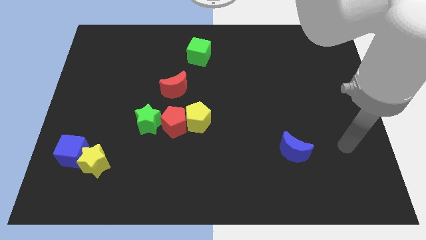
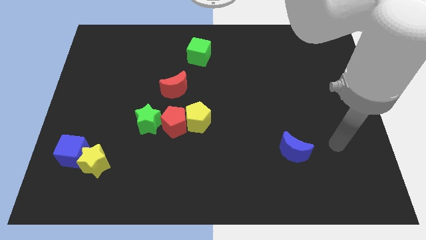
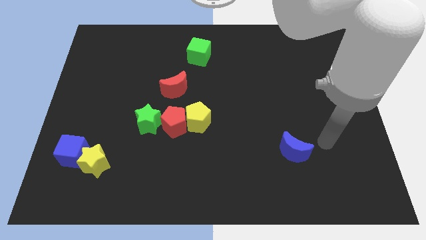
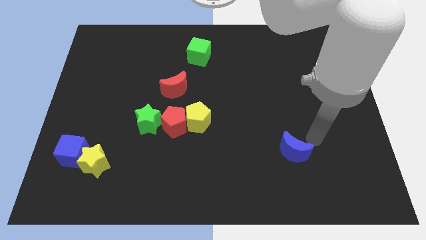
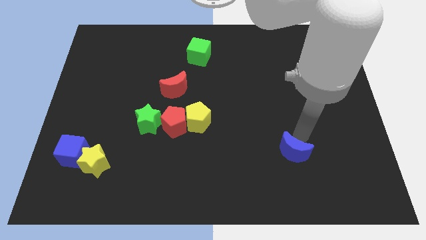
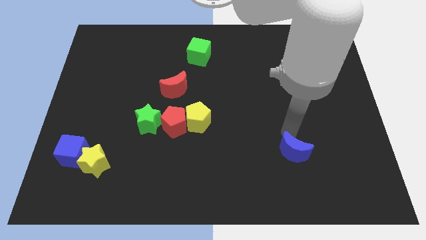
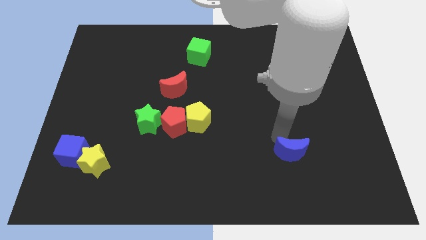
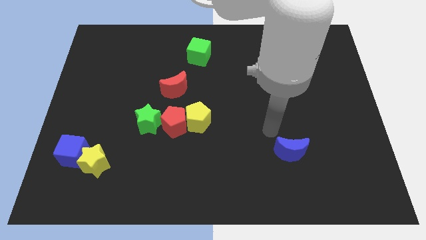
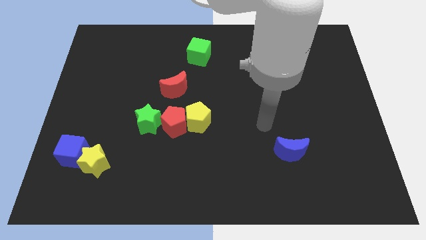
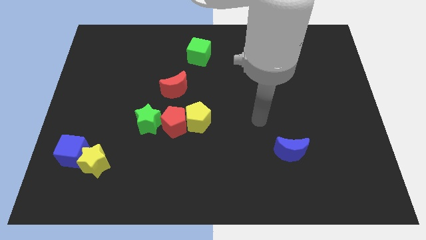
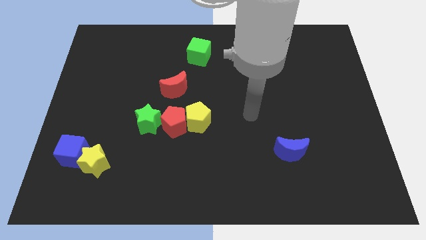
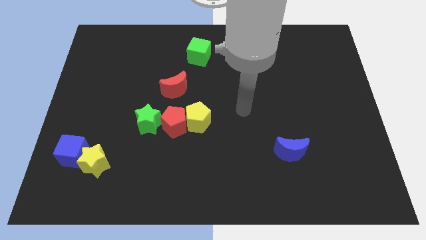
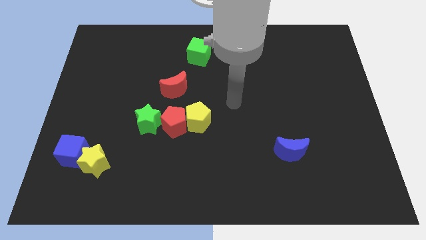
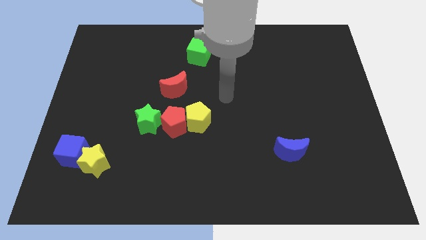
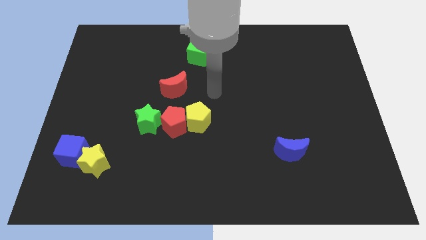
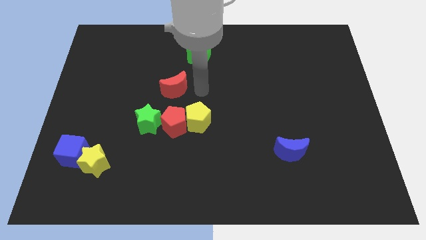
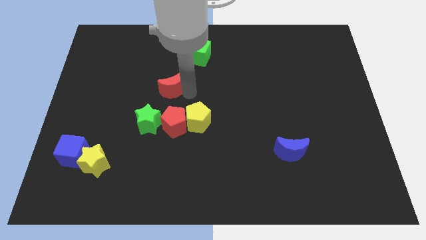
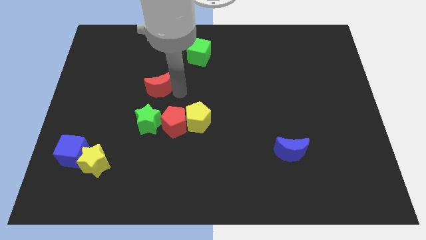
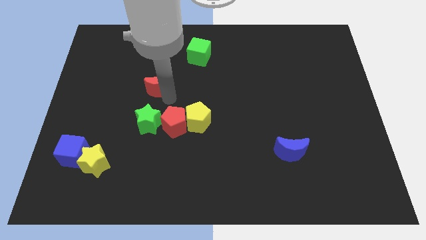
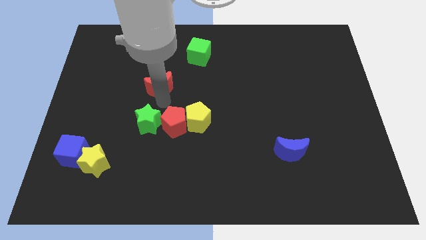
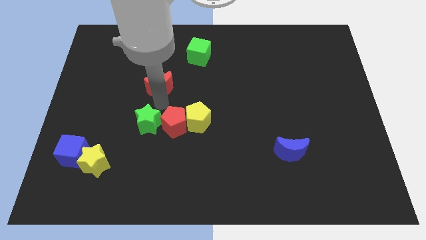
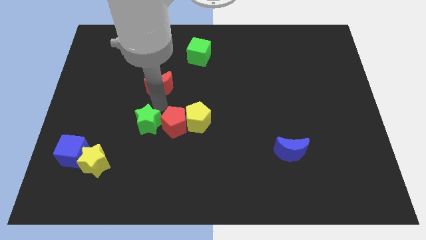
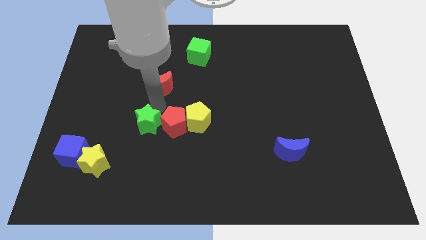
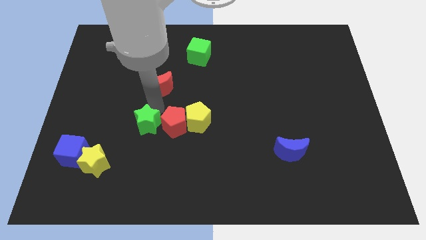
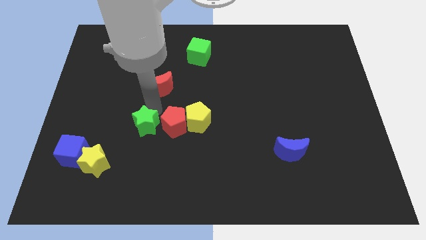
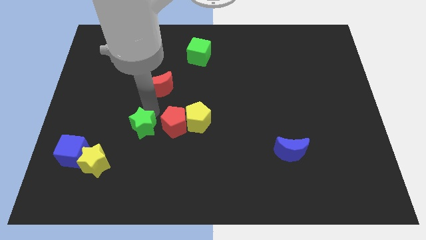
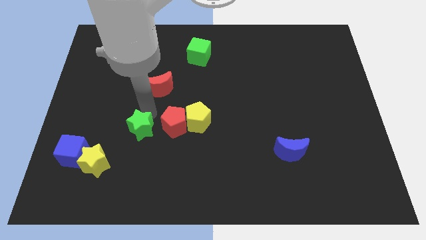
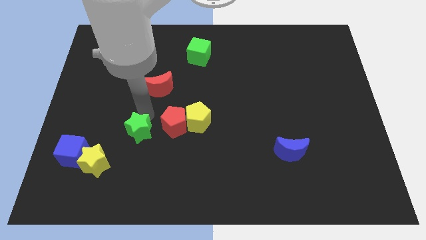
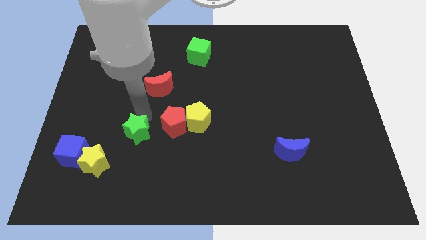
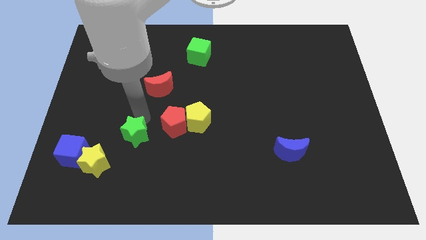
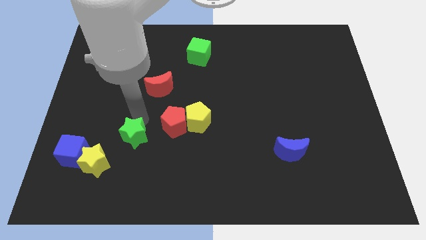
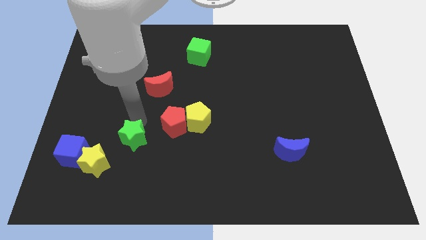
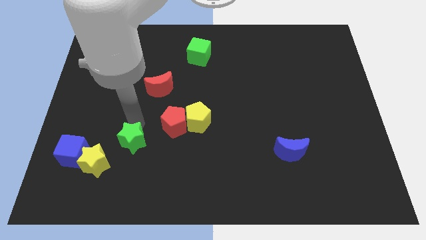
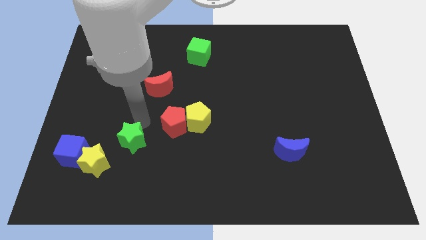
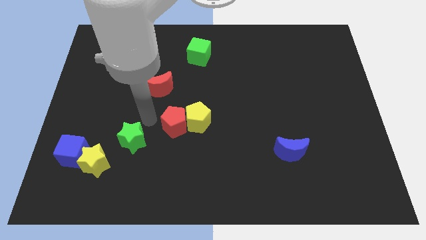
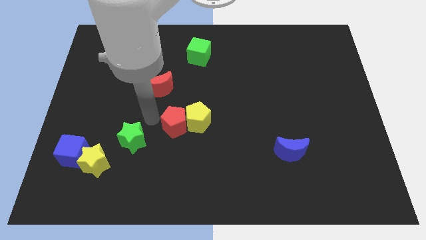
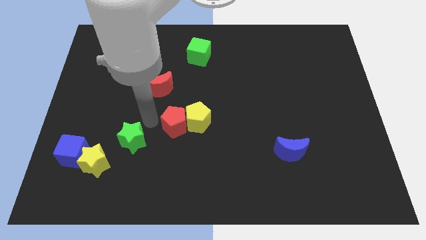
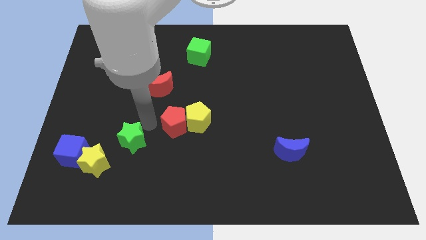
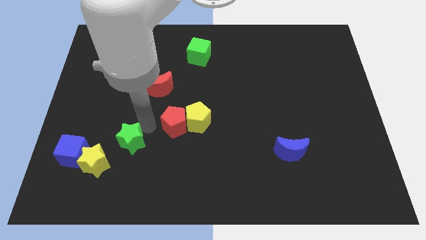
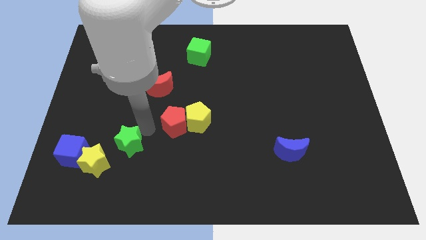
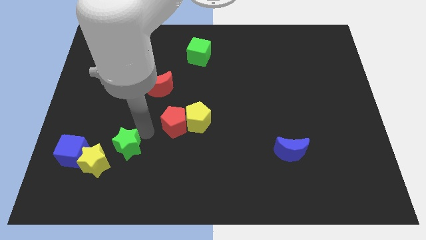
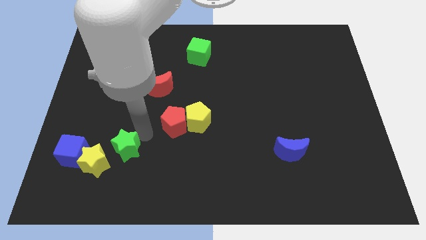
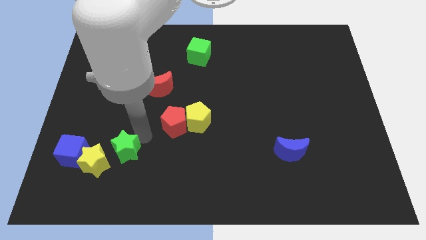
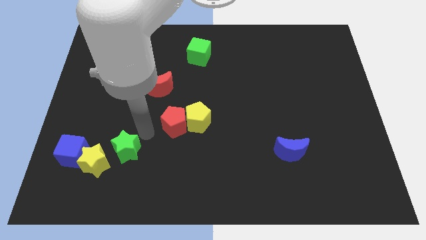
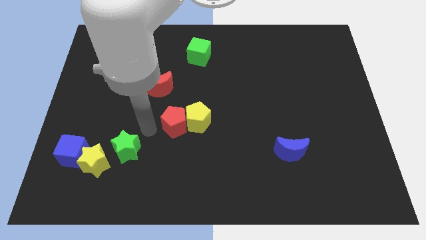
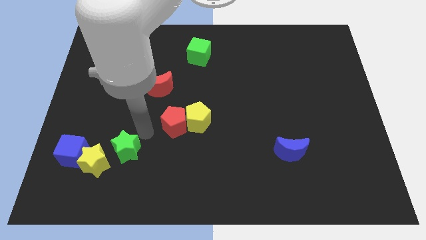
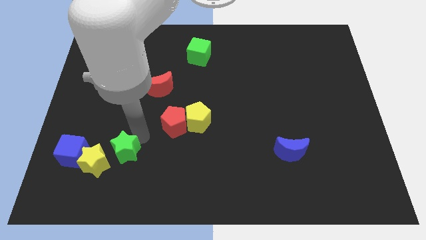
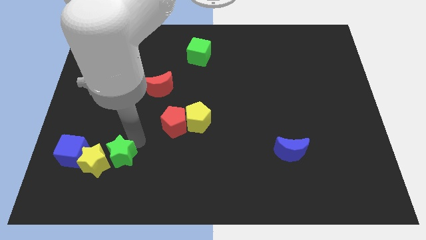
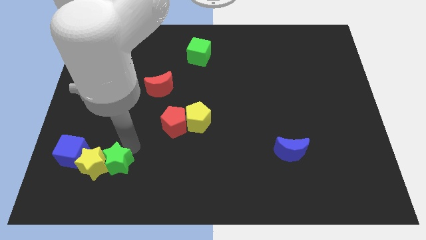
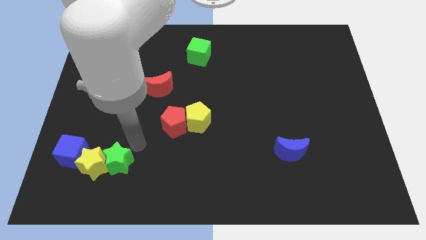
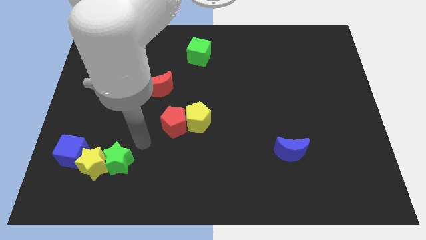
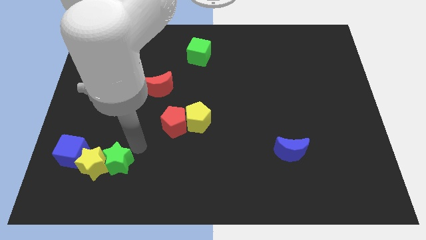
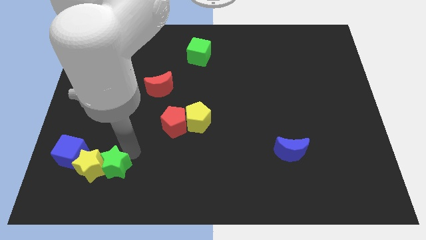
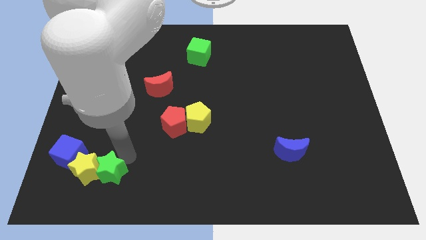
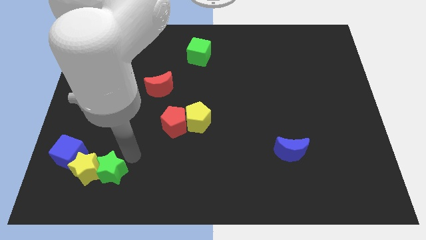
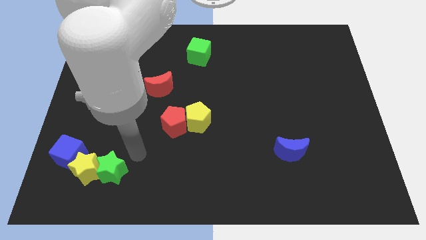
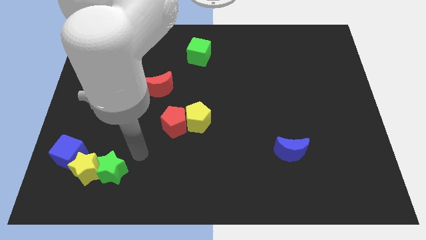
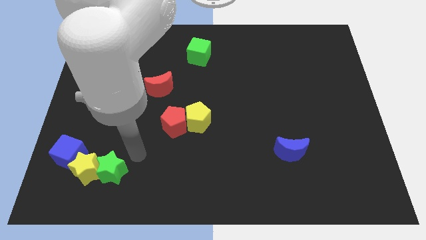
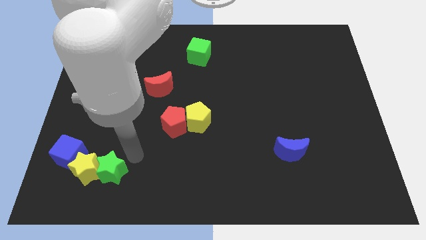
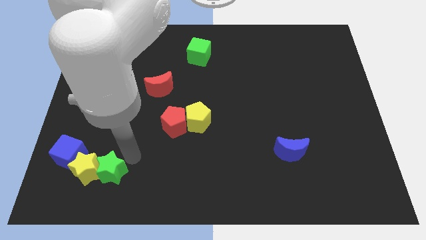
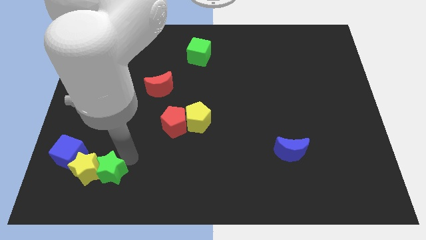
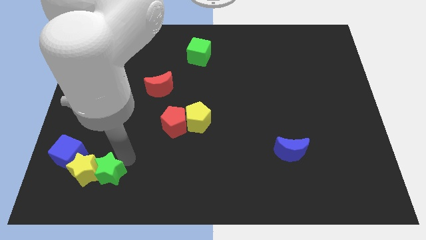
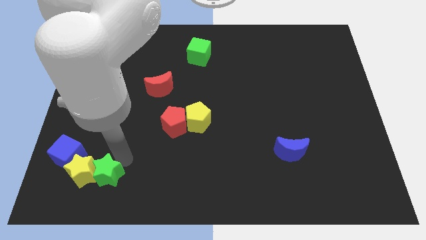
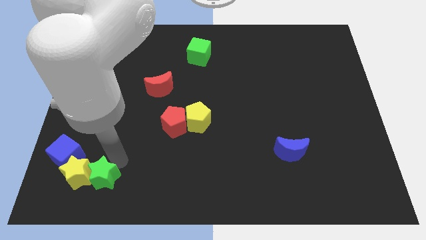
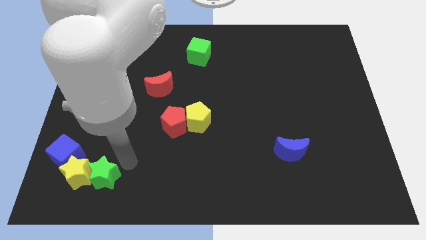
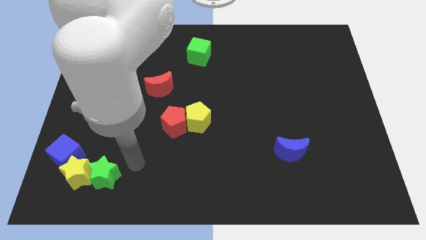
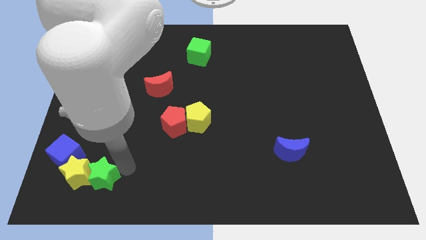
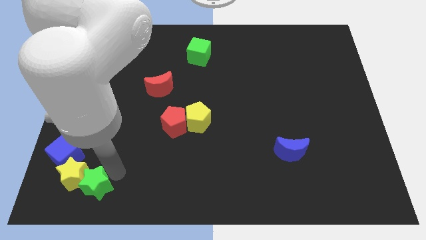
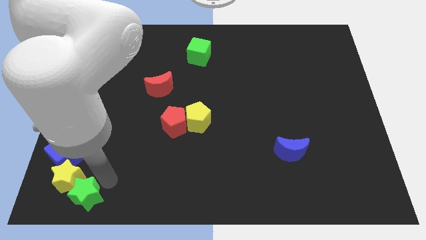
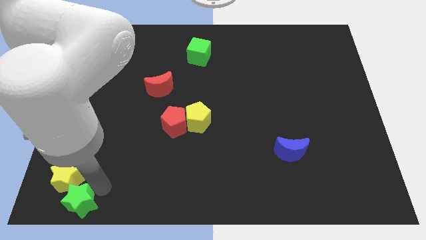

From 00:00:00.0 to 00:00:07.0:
push the green star to the bottom left
